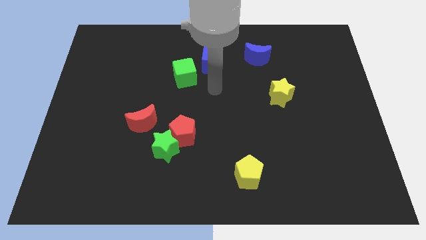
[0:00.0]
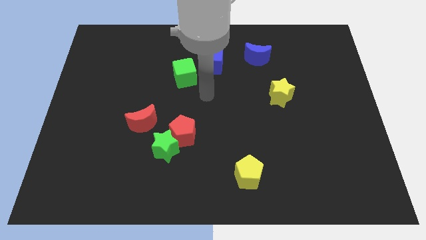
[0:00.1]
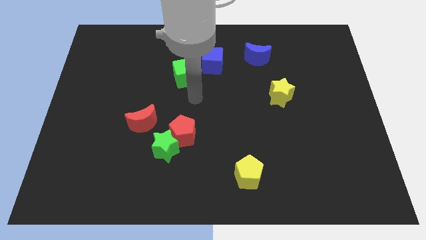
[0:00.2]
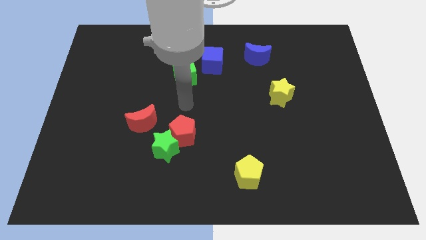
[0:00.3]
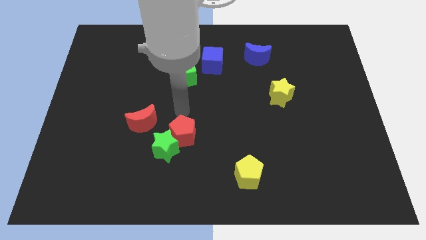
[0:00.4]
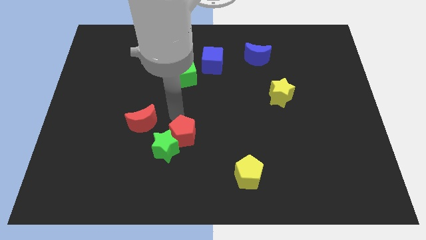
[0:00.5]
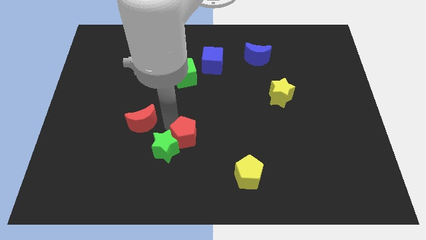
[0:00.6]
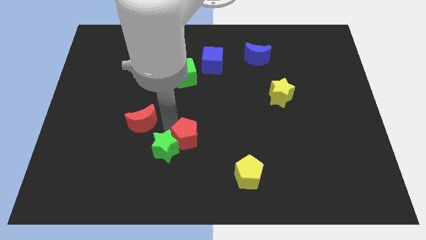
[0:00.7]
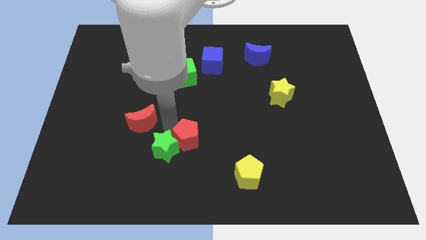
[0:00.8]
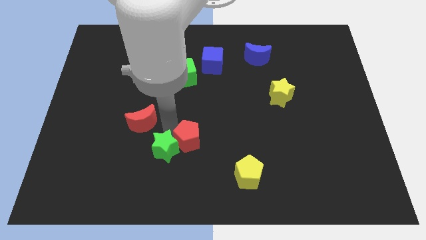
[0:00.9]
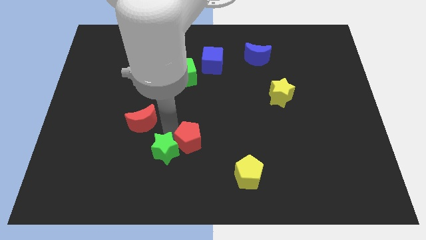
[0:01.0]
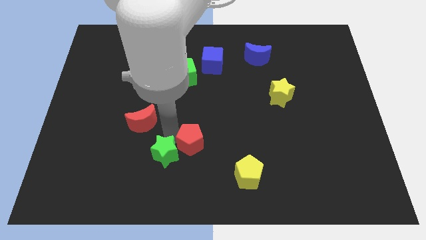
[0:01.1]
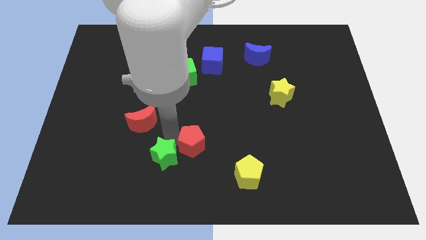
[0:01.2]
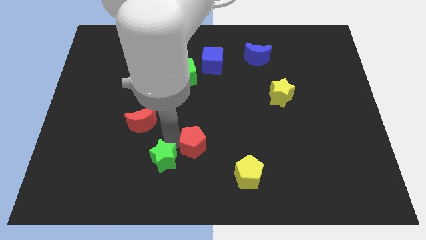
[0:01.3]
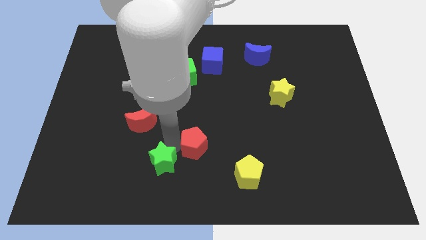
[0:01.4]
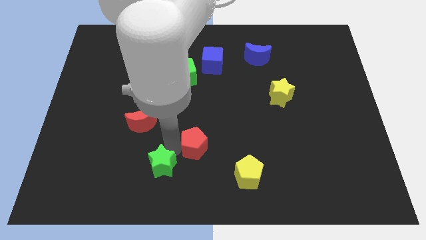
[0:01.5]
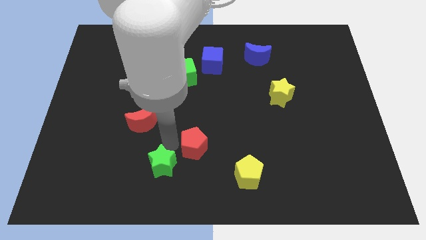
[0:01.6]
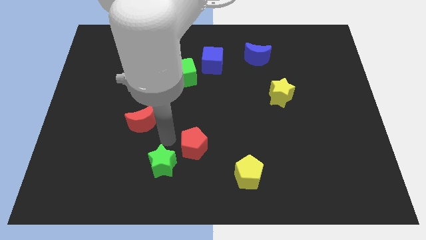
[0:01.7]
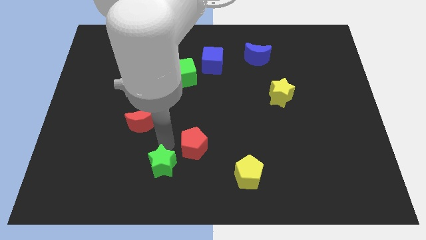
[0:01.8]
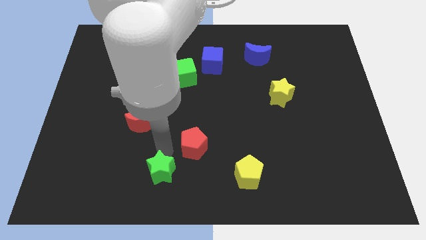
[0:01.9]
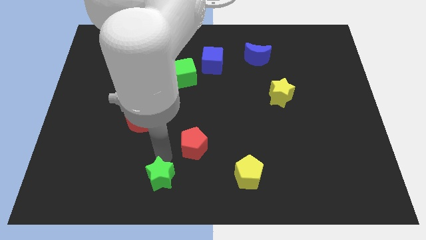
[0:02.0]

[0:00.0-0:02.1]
separate the green star from the red pentagon and red moon

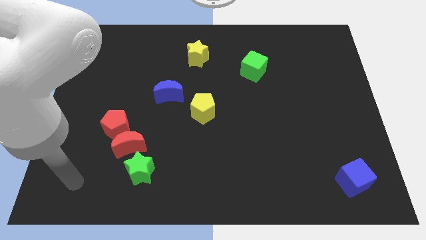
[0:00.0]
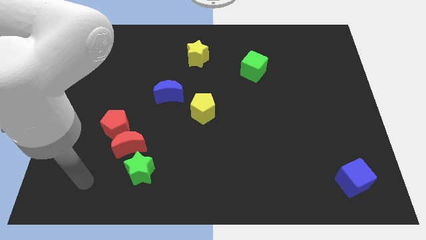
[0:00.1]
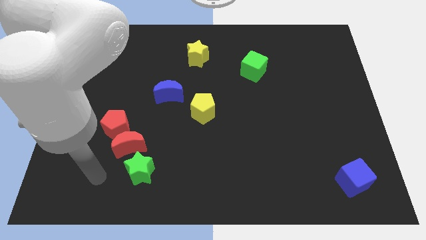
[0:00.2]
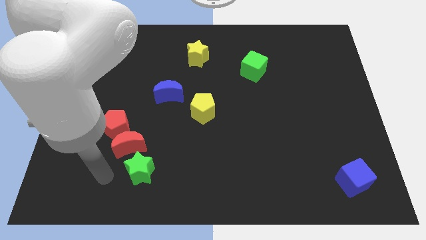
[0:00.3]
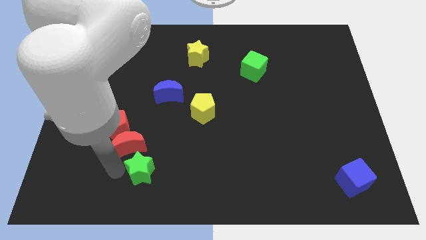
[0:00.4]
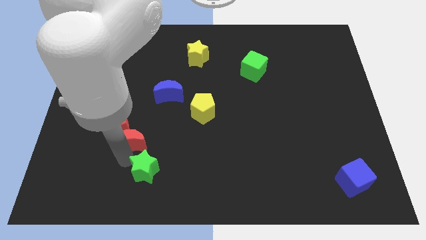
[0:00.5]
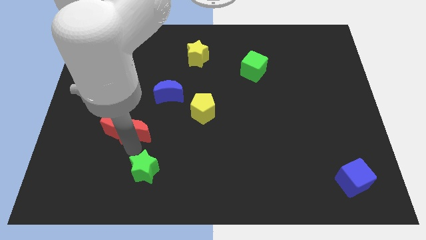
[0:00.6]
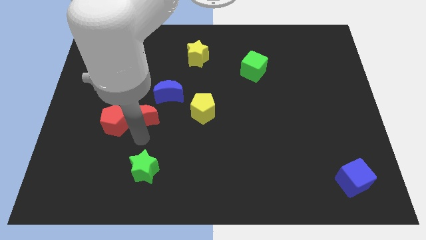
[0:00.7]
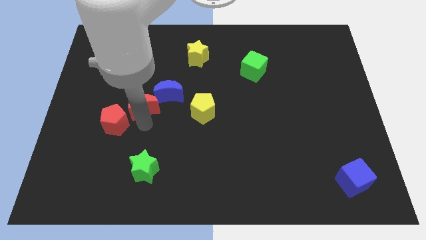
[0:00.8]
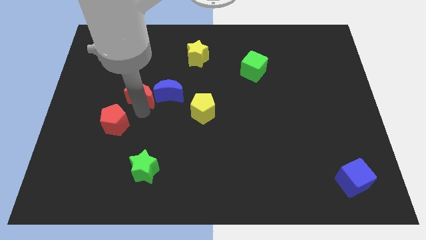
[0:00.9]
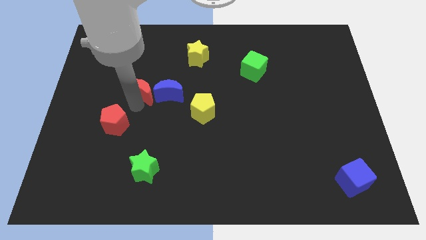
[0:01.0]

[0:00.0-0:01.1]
separate the red pentagon from the red moon

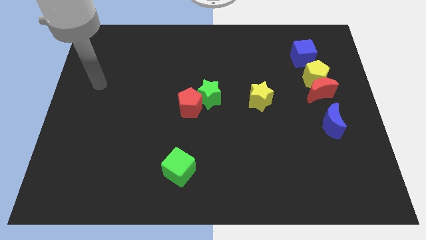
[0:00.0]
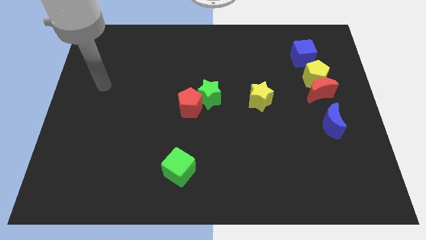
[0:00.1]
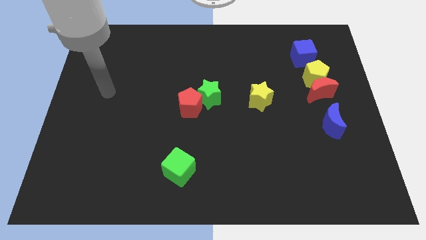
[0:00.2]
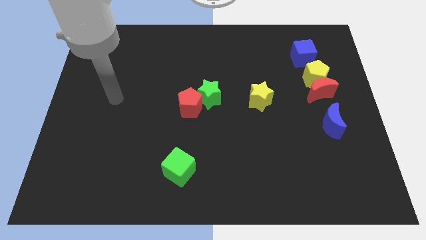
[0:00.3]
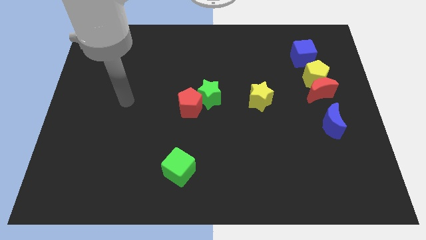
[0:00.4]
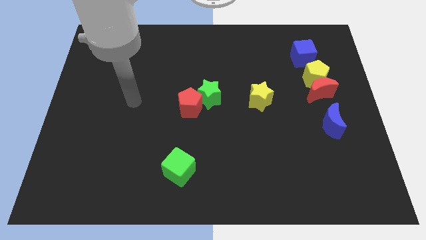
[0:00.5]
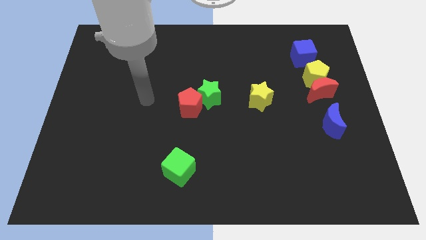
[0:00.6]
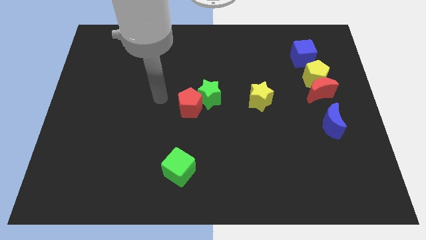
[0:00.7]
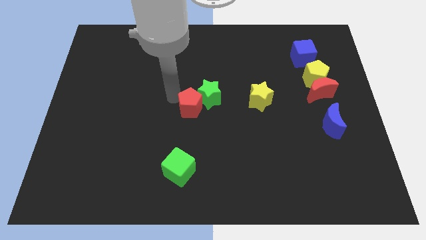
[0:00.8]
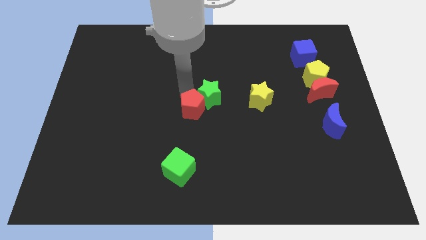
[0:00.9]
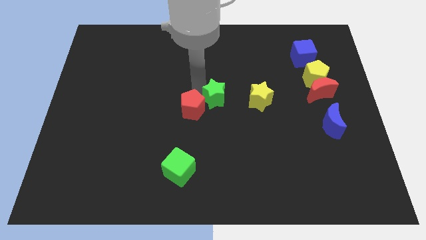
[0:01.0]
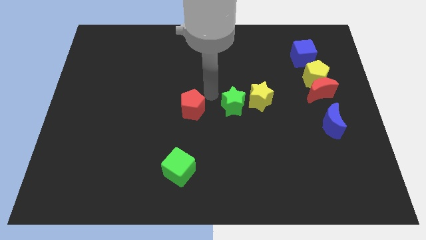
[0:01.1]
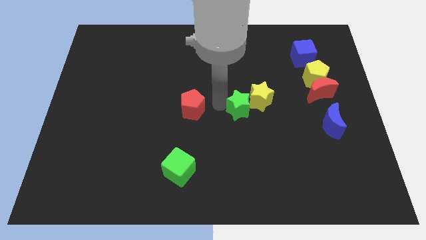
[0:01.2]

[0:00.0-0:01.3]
separate the red pentagon from the green star

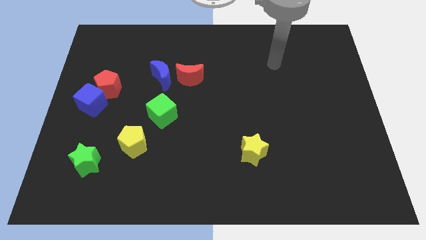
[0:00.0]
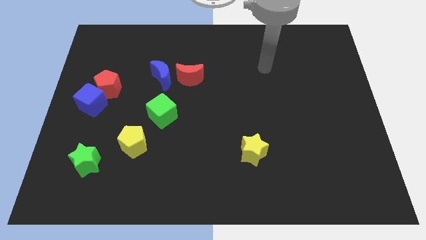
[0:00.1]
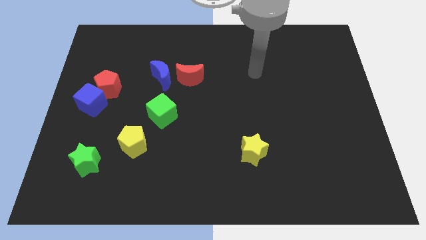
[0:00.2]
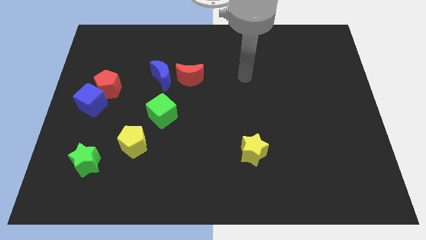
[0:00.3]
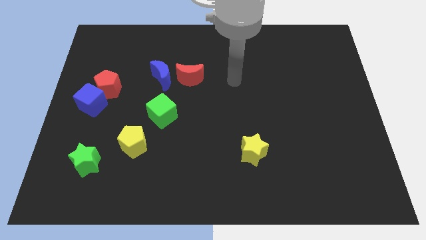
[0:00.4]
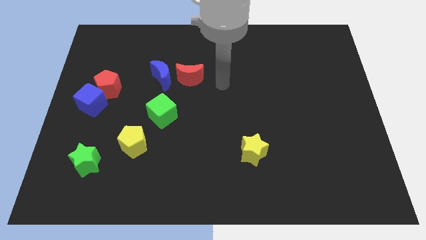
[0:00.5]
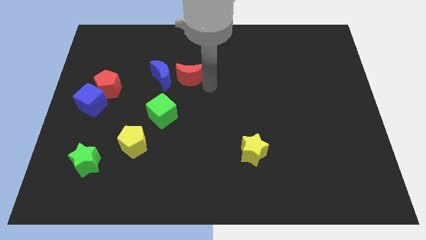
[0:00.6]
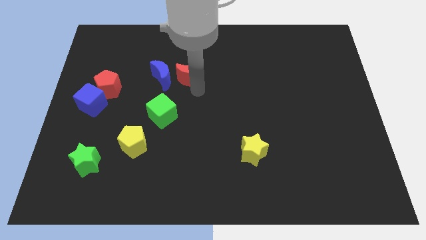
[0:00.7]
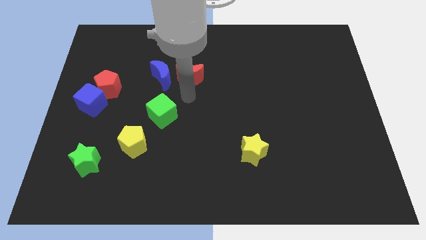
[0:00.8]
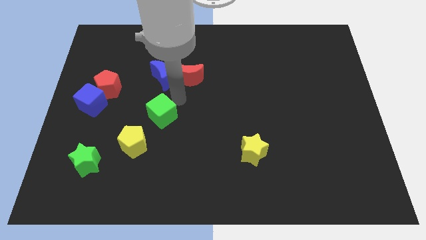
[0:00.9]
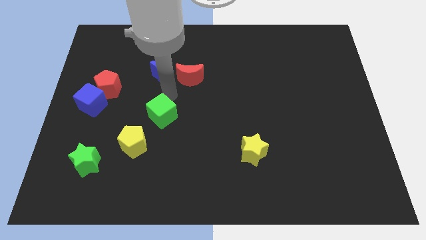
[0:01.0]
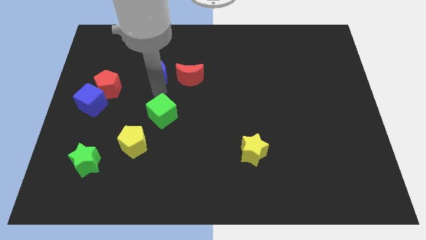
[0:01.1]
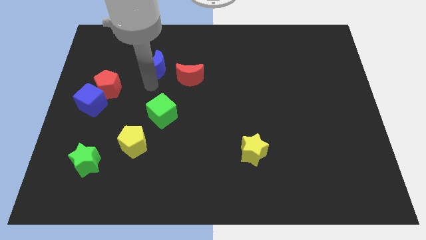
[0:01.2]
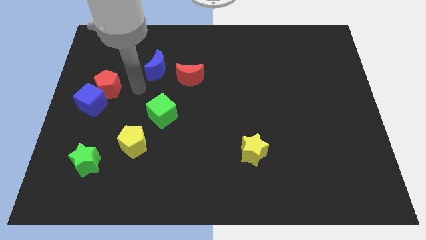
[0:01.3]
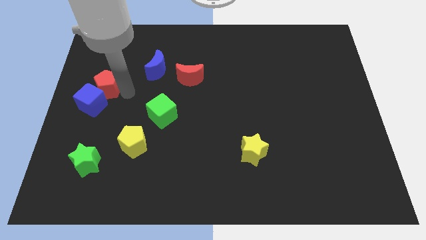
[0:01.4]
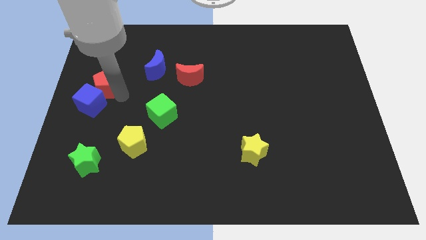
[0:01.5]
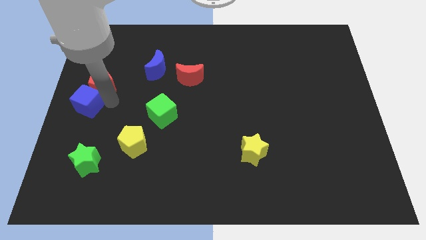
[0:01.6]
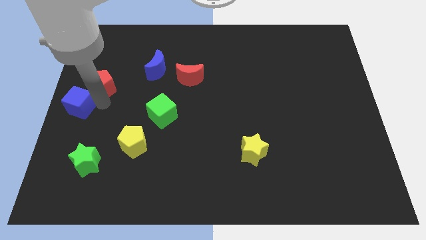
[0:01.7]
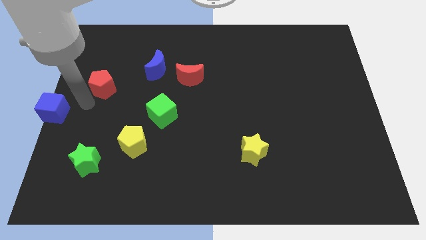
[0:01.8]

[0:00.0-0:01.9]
pull the red pentagon apart from the blue cube

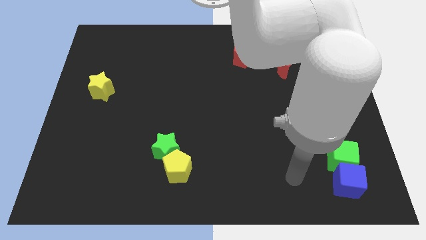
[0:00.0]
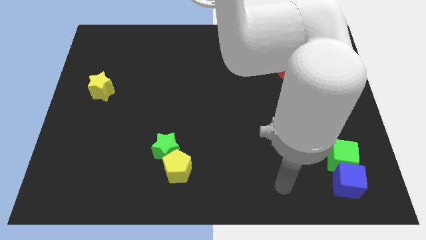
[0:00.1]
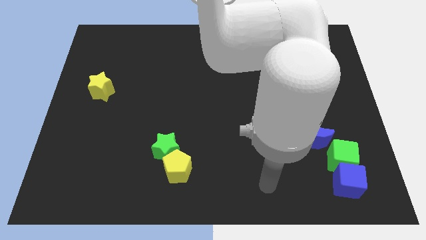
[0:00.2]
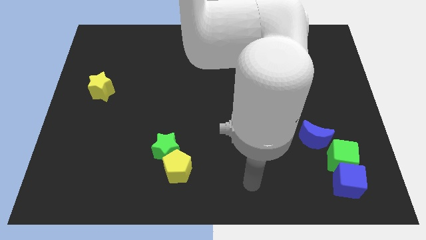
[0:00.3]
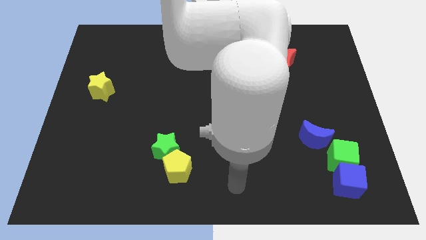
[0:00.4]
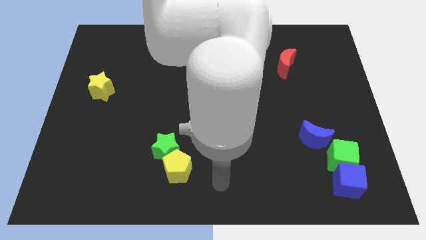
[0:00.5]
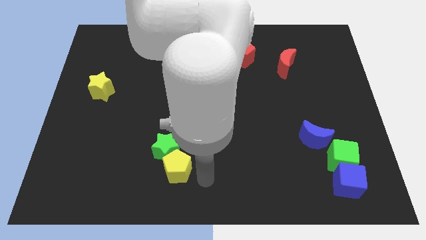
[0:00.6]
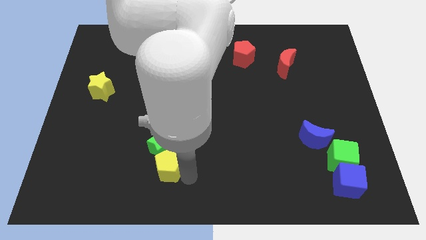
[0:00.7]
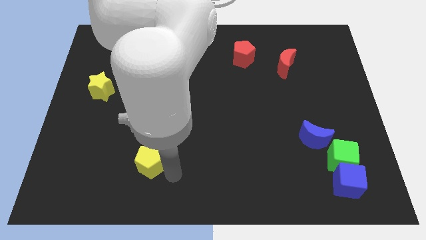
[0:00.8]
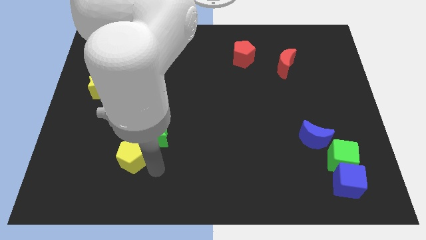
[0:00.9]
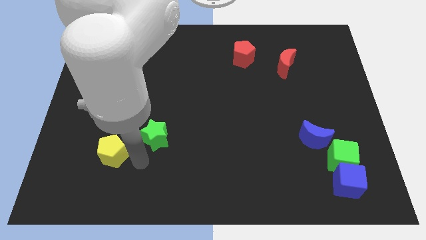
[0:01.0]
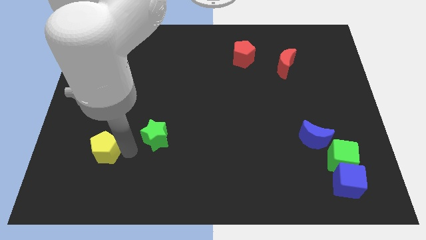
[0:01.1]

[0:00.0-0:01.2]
move the green star away from the yellow pentagon

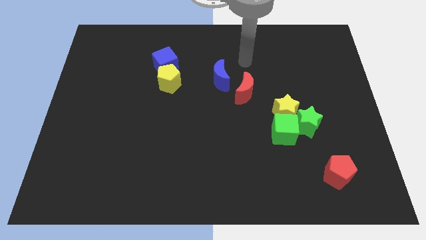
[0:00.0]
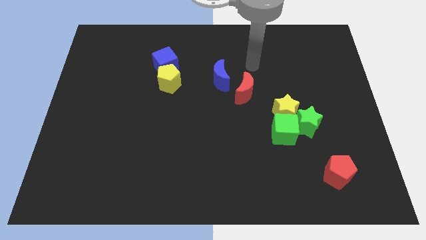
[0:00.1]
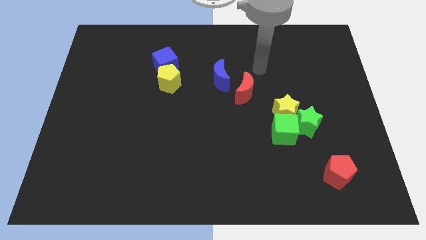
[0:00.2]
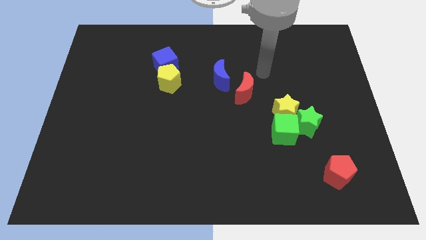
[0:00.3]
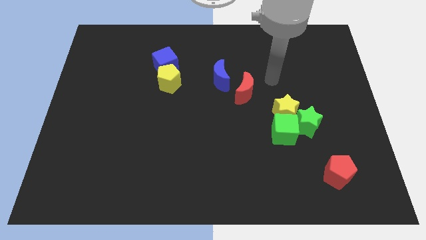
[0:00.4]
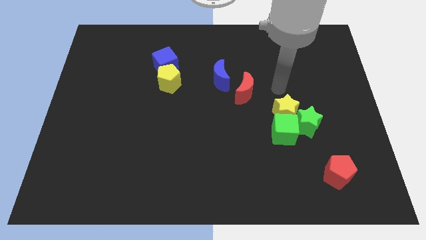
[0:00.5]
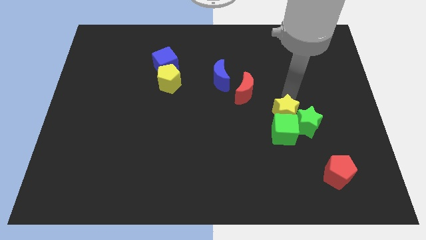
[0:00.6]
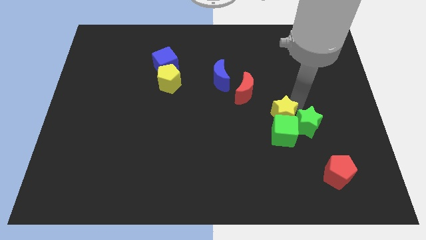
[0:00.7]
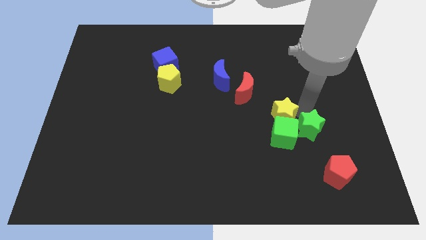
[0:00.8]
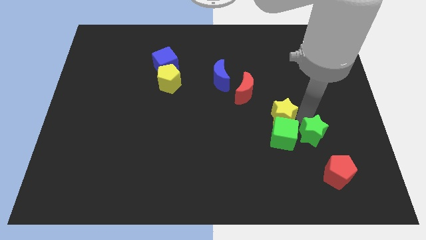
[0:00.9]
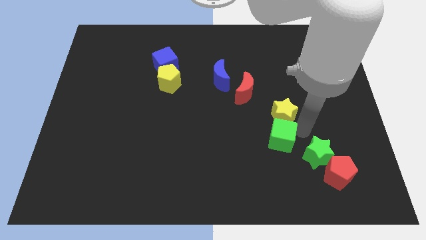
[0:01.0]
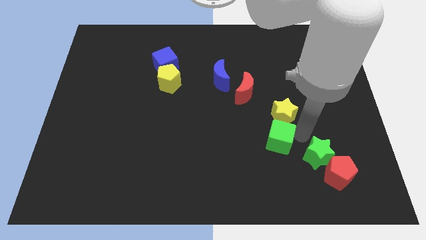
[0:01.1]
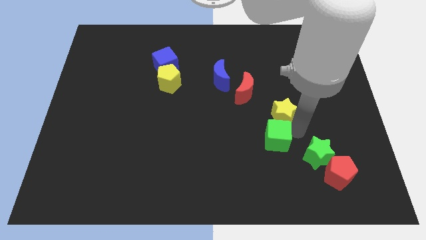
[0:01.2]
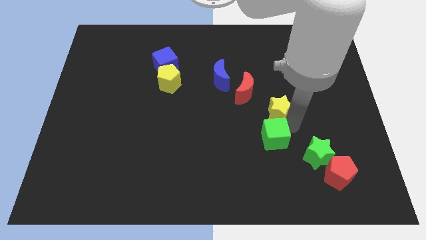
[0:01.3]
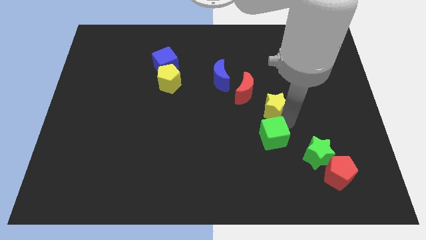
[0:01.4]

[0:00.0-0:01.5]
move the yellow star away from the green cube and green star

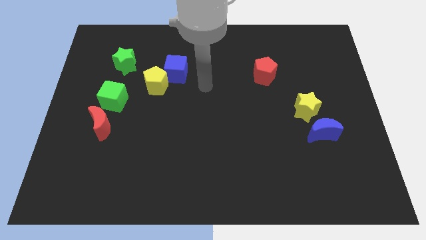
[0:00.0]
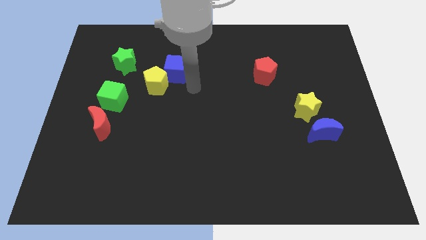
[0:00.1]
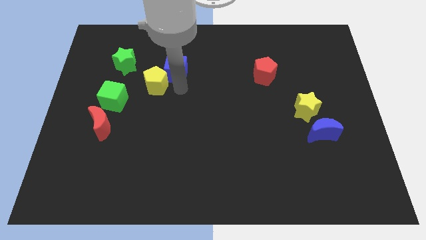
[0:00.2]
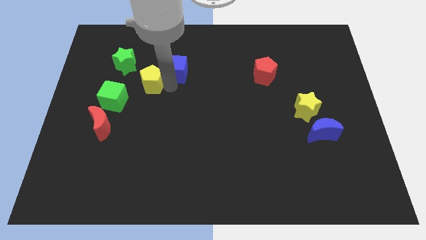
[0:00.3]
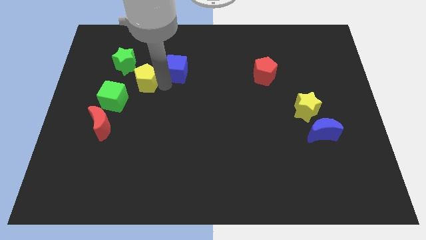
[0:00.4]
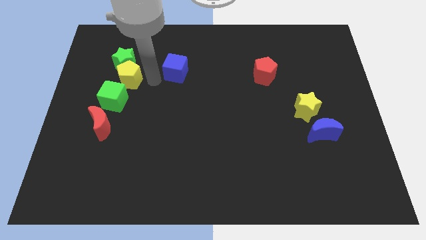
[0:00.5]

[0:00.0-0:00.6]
pull the blue cube apart from the yellow pentagon
